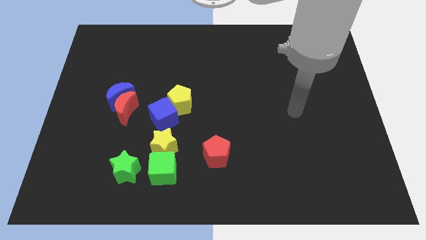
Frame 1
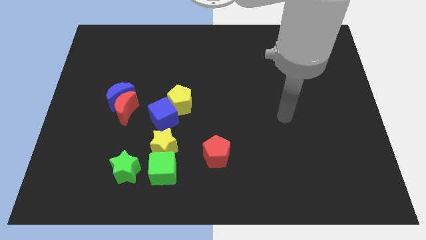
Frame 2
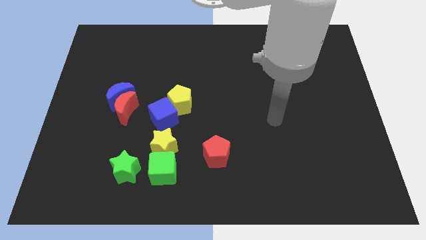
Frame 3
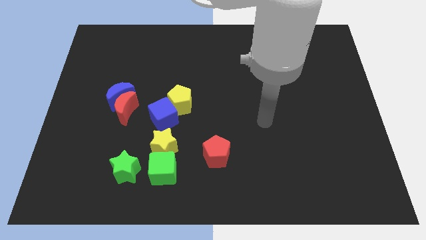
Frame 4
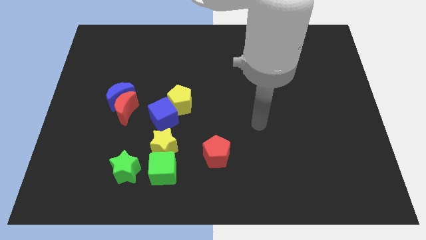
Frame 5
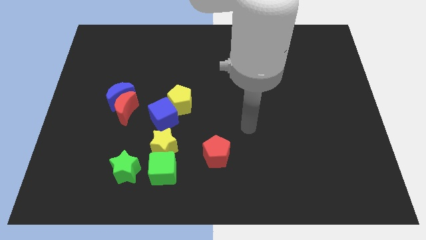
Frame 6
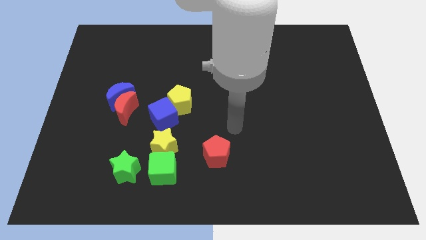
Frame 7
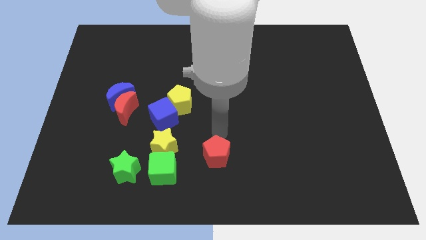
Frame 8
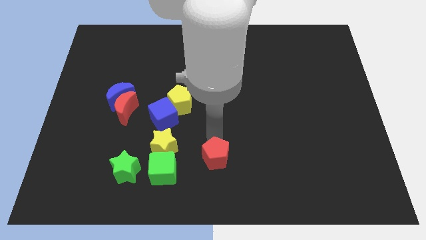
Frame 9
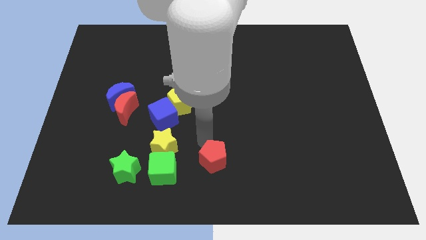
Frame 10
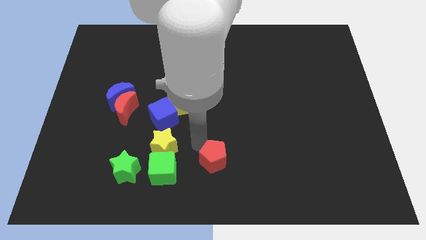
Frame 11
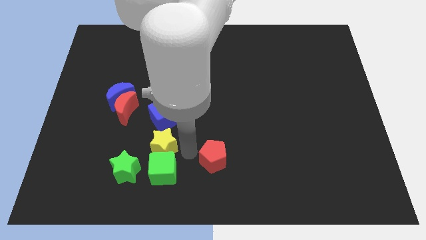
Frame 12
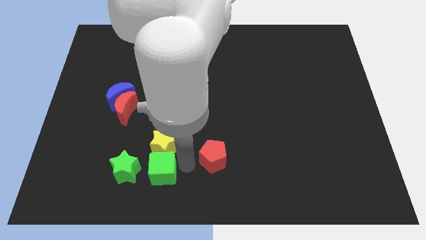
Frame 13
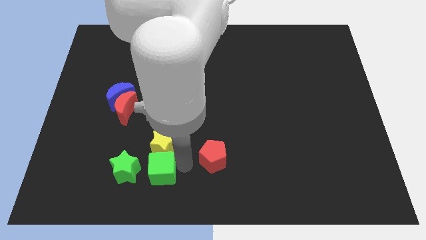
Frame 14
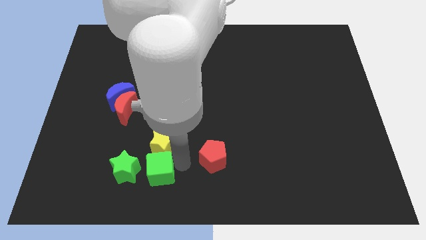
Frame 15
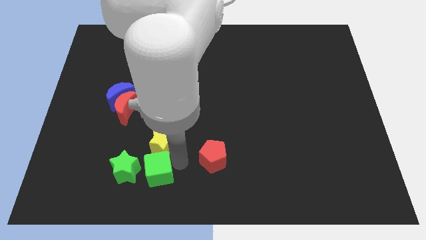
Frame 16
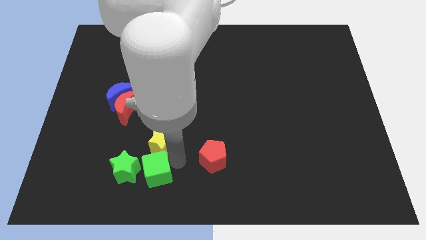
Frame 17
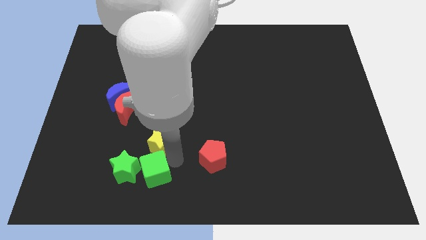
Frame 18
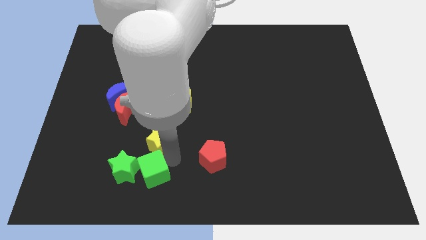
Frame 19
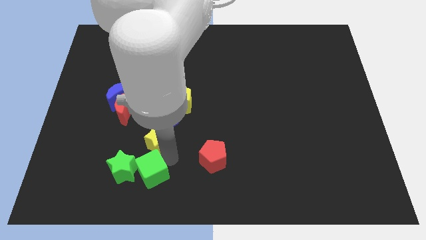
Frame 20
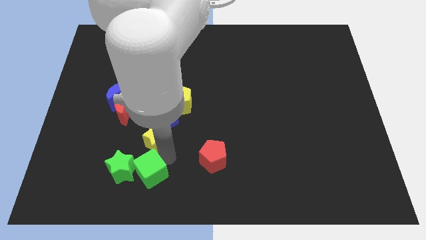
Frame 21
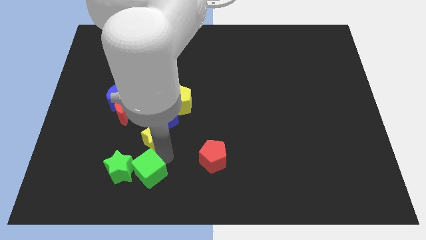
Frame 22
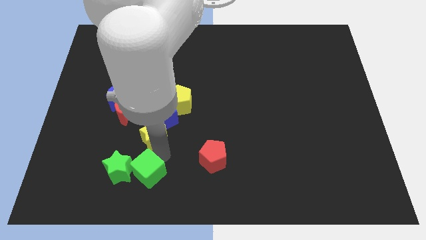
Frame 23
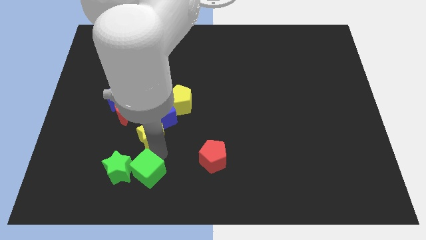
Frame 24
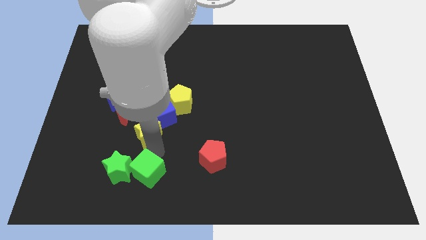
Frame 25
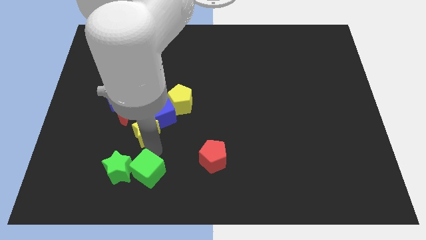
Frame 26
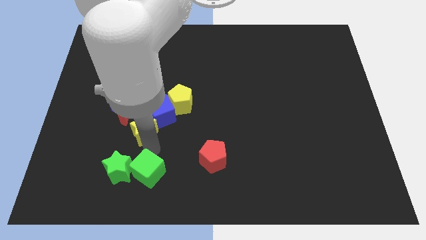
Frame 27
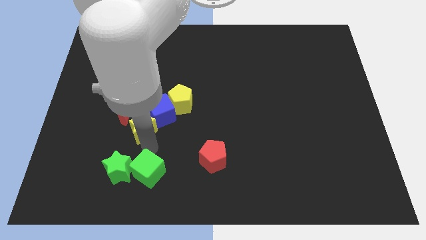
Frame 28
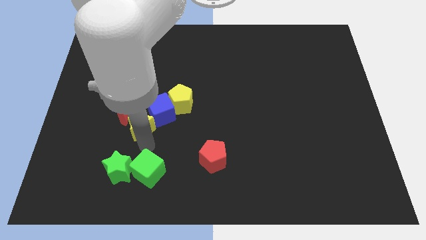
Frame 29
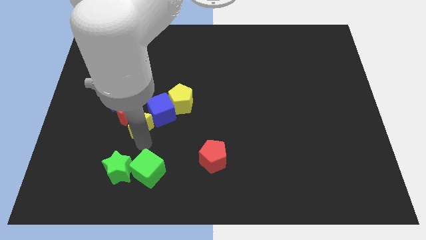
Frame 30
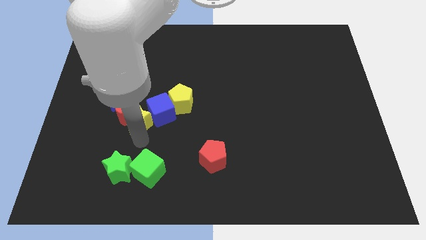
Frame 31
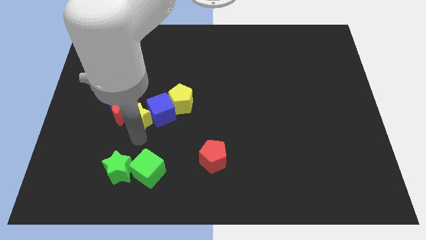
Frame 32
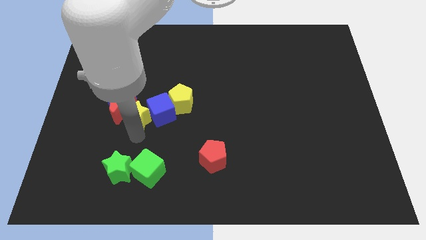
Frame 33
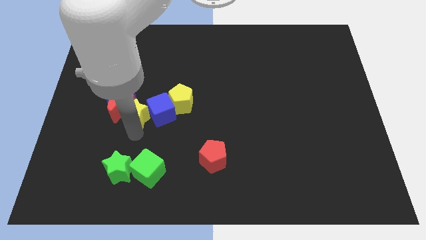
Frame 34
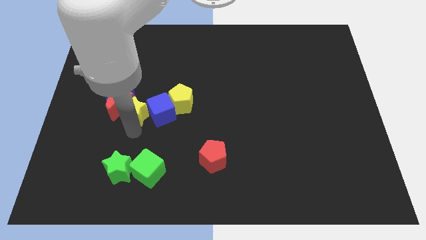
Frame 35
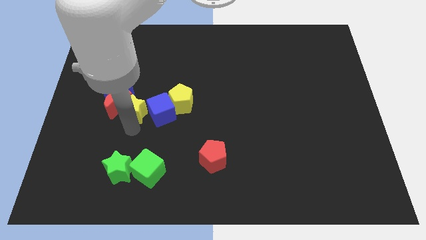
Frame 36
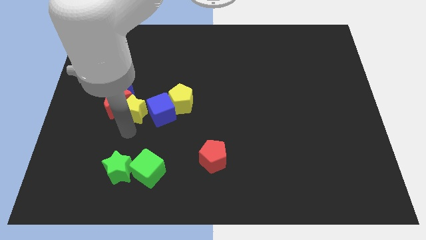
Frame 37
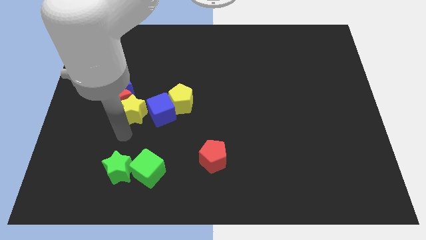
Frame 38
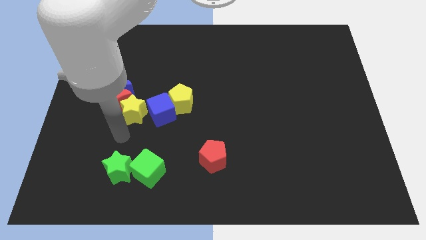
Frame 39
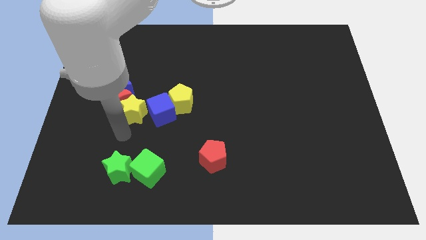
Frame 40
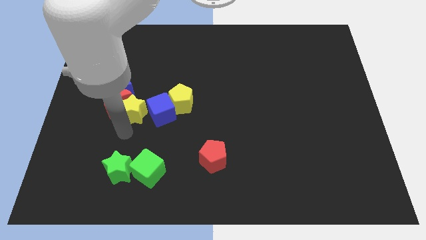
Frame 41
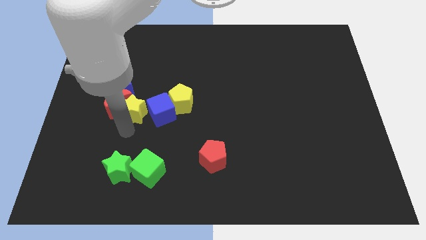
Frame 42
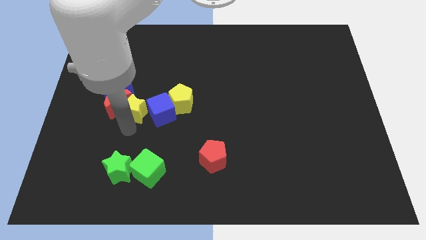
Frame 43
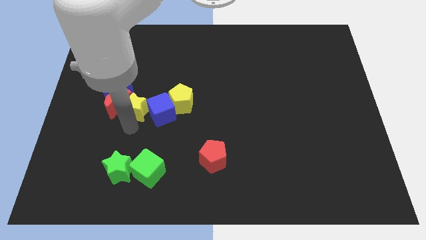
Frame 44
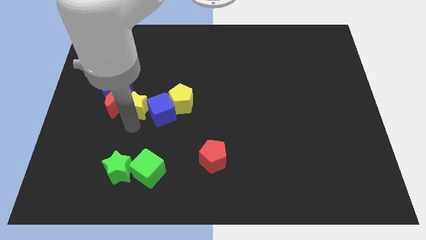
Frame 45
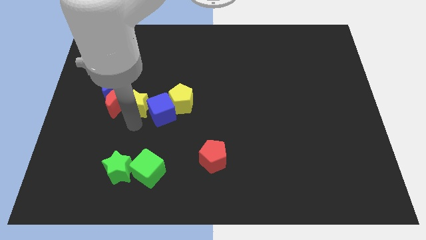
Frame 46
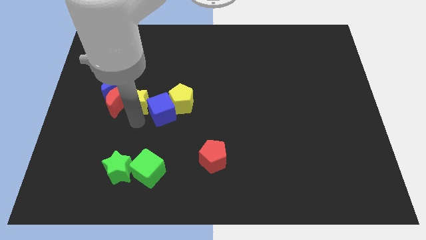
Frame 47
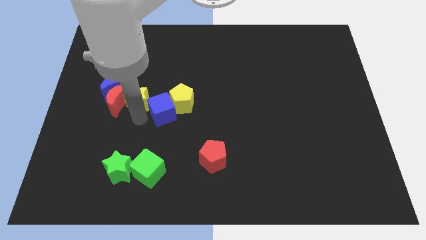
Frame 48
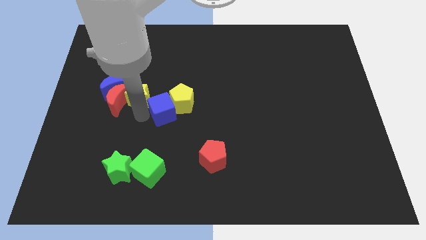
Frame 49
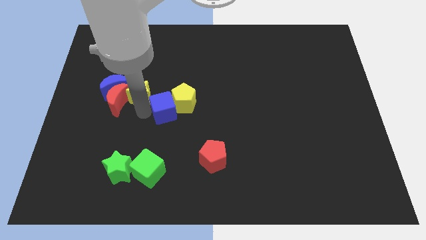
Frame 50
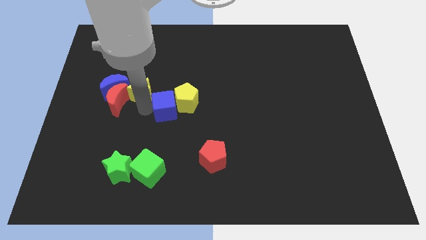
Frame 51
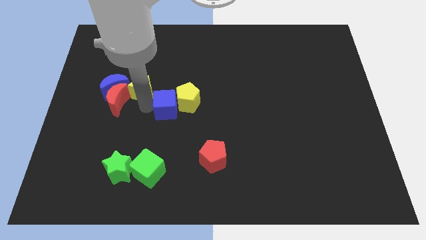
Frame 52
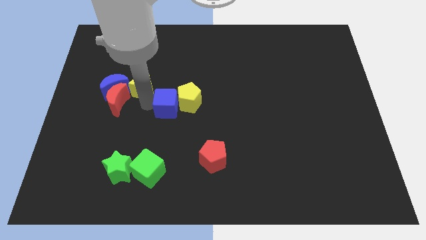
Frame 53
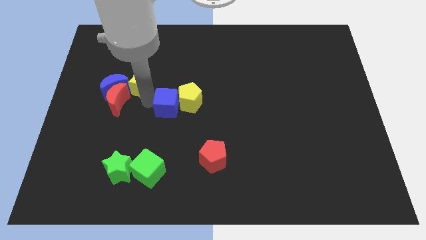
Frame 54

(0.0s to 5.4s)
push the yellow star to the top right side of the blue moon

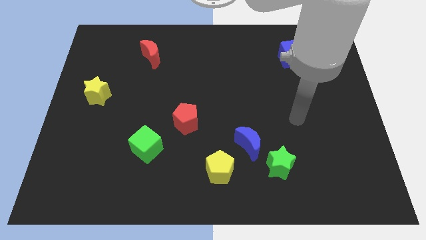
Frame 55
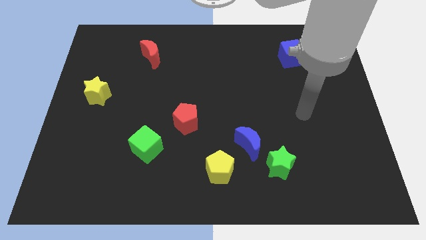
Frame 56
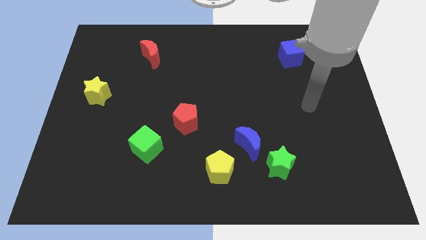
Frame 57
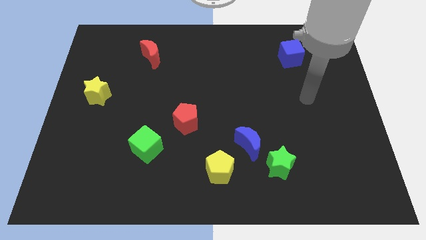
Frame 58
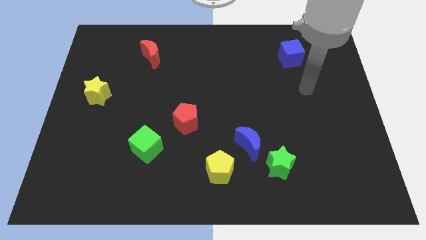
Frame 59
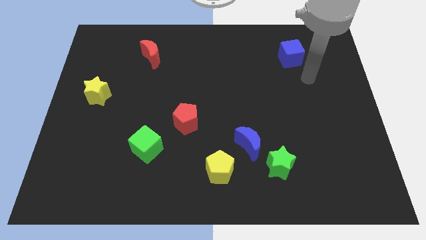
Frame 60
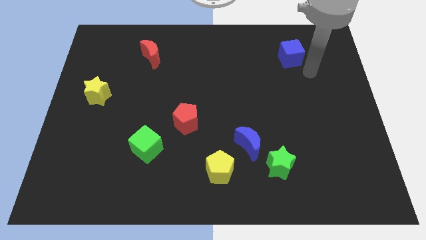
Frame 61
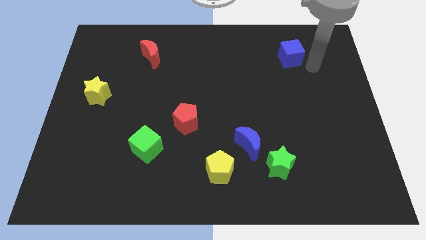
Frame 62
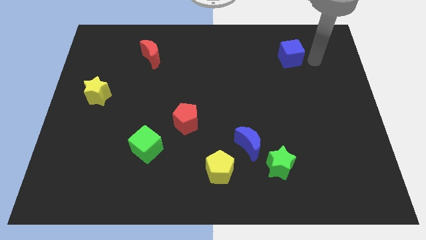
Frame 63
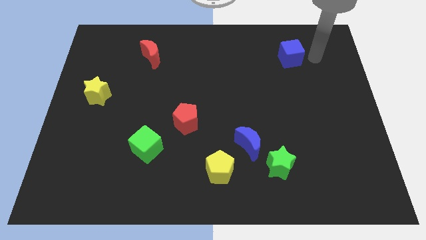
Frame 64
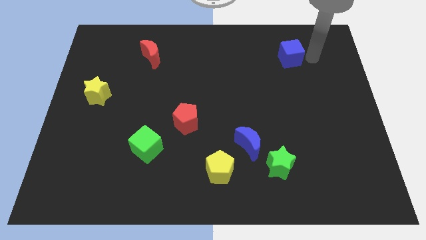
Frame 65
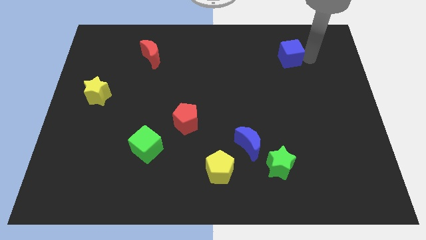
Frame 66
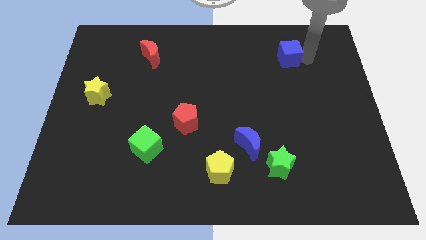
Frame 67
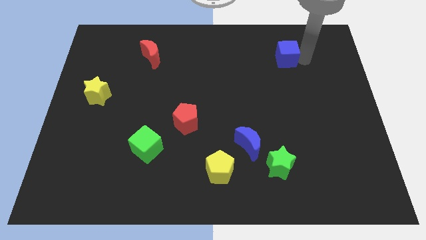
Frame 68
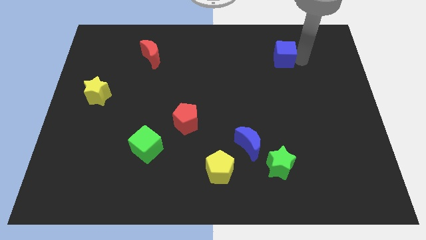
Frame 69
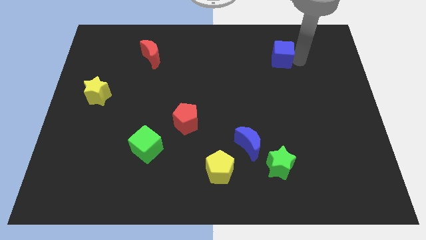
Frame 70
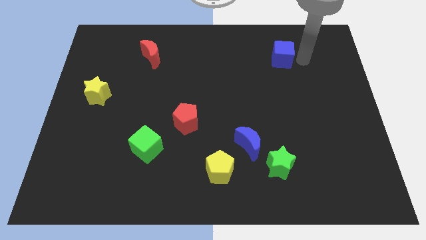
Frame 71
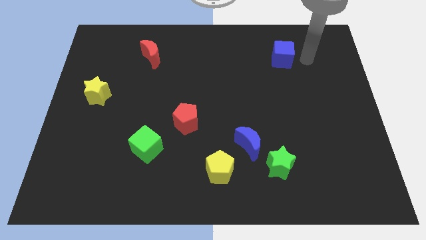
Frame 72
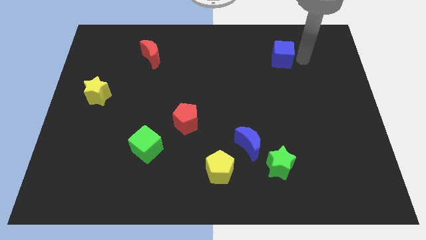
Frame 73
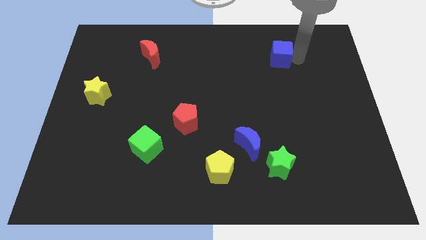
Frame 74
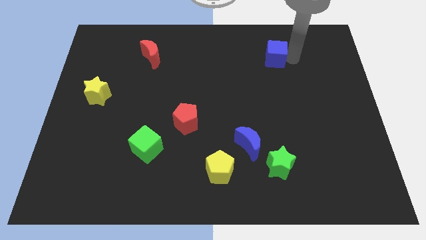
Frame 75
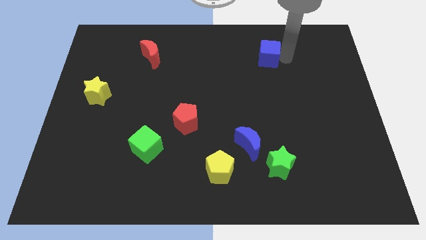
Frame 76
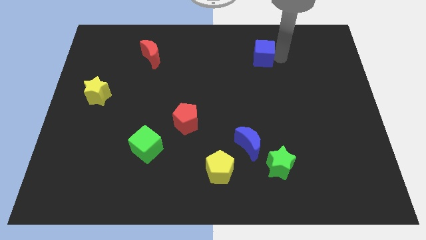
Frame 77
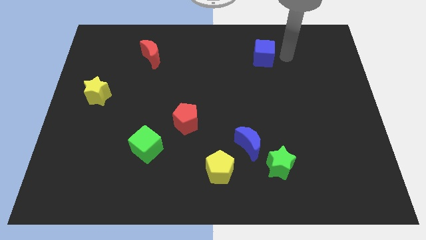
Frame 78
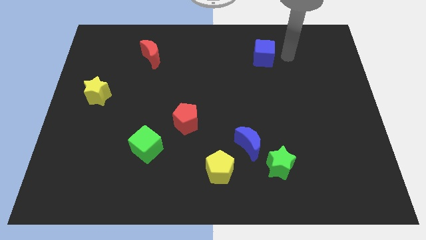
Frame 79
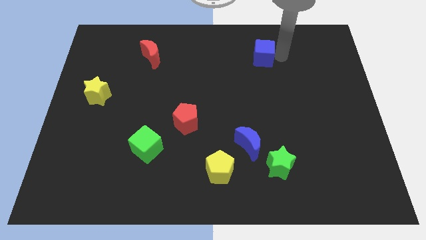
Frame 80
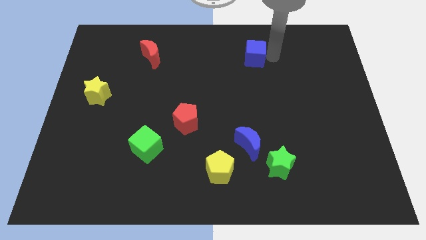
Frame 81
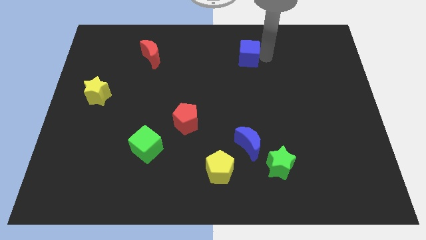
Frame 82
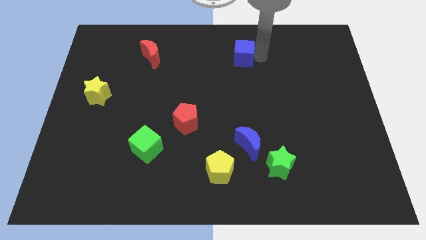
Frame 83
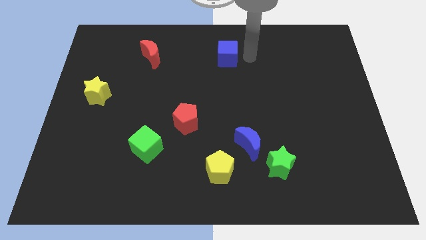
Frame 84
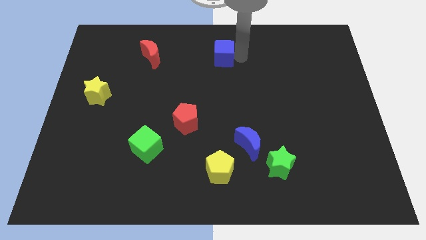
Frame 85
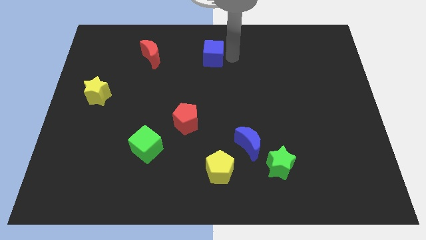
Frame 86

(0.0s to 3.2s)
put the blue cube right of the red moon
